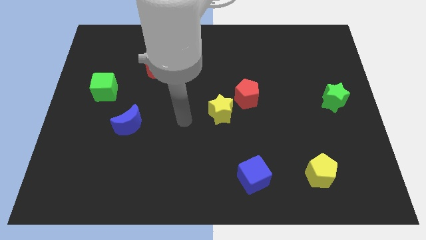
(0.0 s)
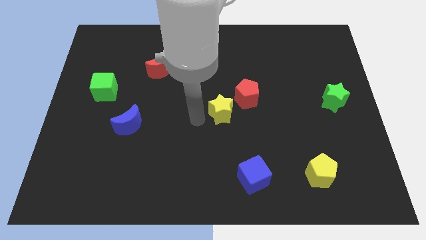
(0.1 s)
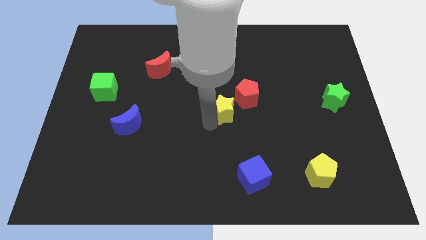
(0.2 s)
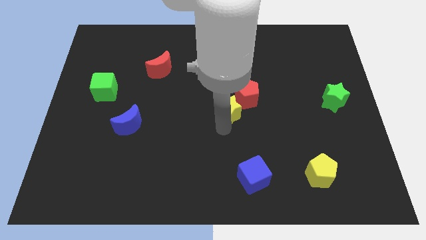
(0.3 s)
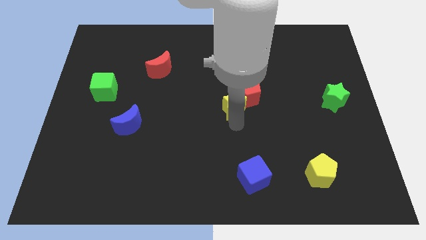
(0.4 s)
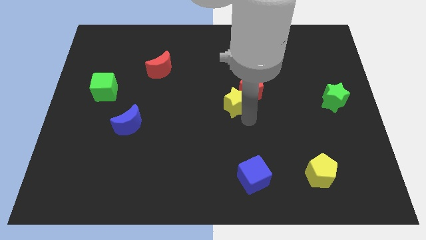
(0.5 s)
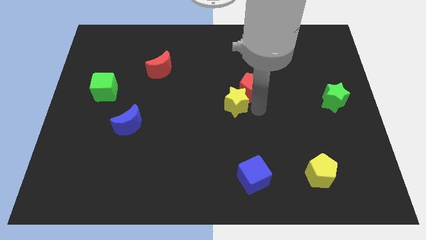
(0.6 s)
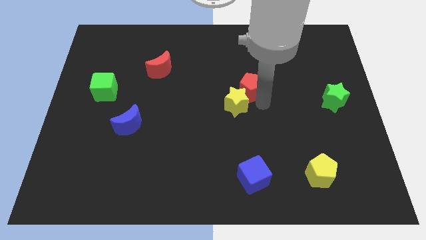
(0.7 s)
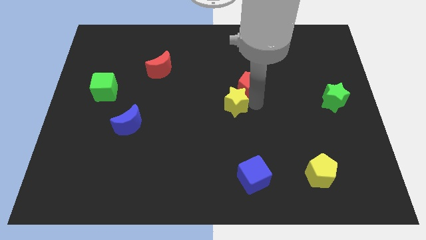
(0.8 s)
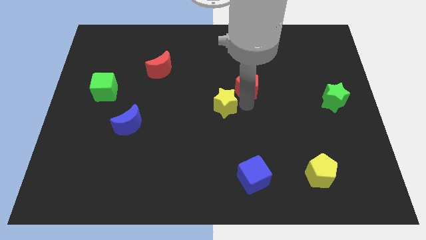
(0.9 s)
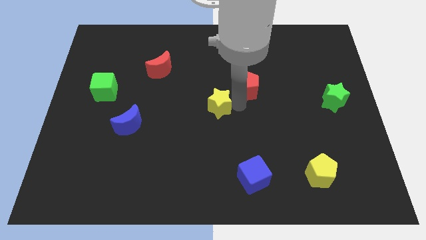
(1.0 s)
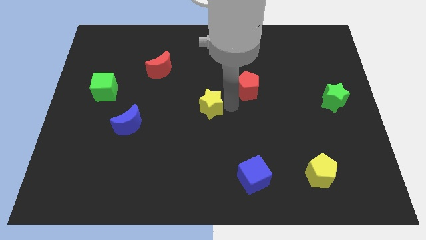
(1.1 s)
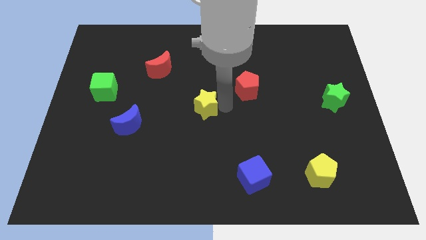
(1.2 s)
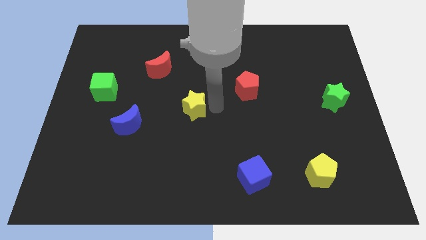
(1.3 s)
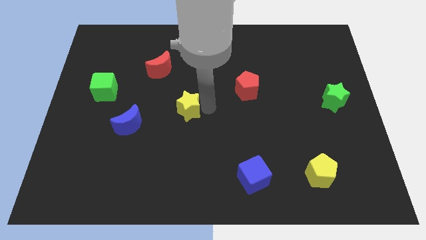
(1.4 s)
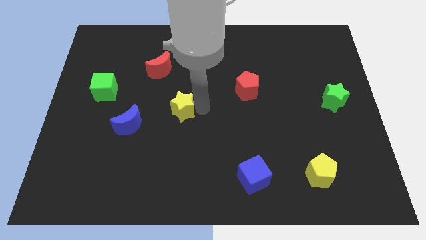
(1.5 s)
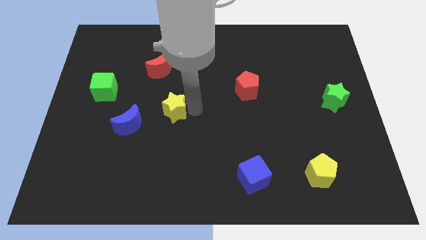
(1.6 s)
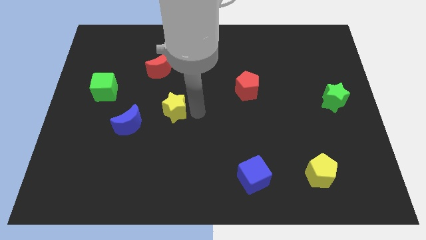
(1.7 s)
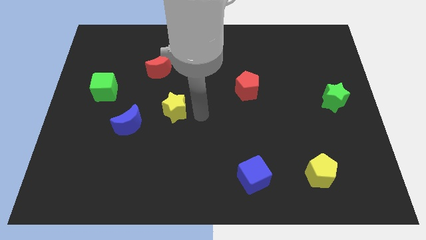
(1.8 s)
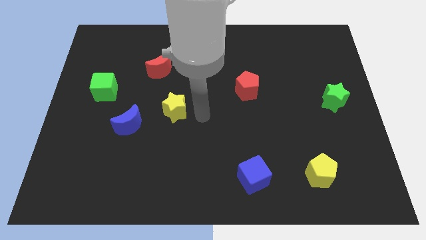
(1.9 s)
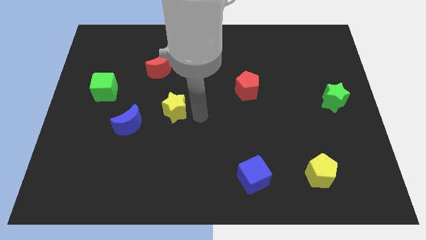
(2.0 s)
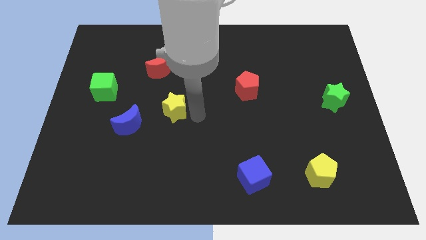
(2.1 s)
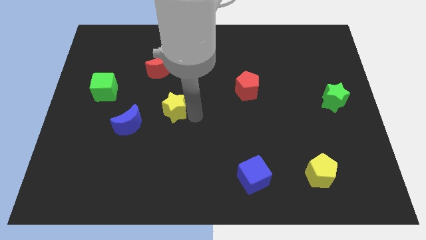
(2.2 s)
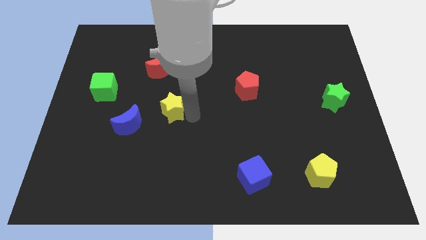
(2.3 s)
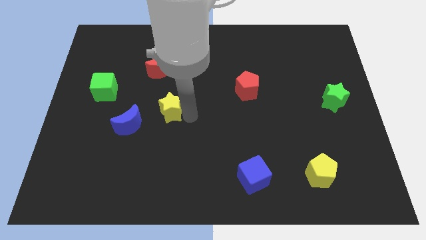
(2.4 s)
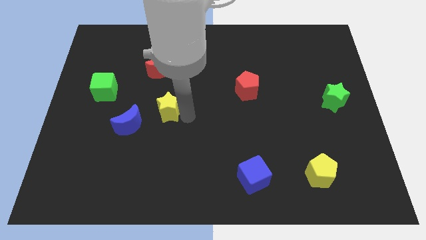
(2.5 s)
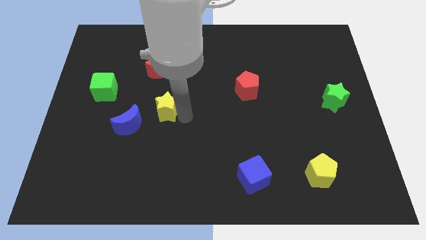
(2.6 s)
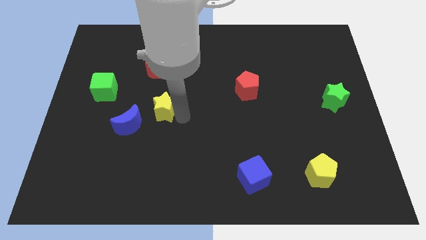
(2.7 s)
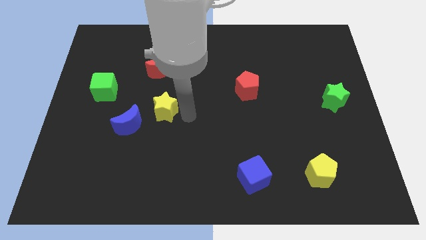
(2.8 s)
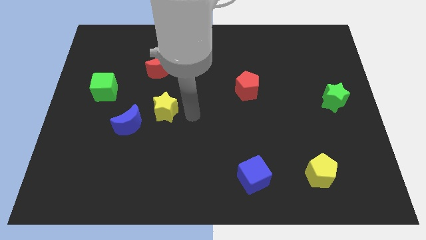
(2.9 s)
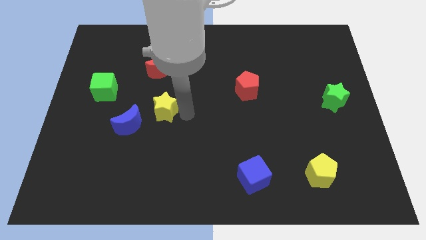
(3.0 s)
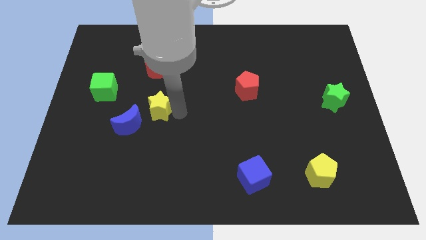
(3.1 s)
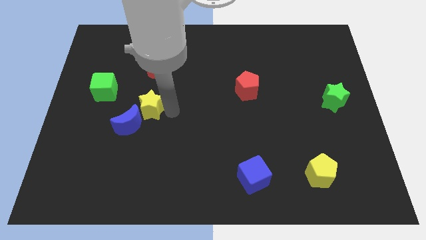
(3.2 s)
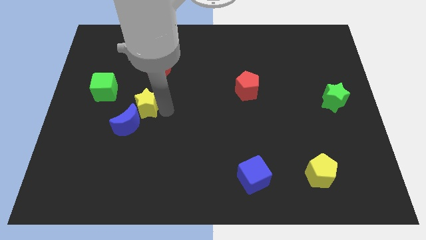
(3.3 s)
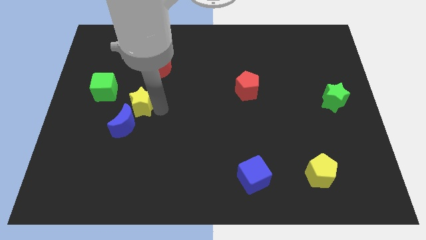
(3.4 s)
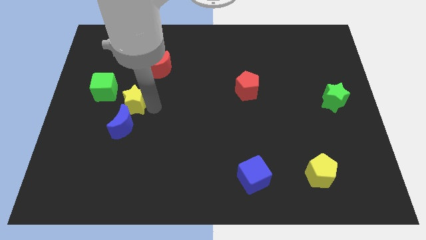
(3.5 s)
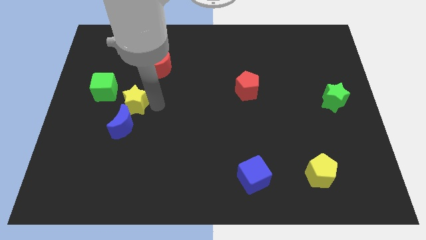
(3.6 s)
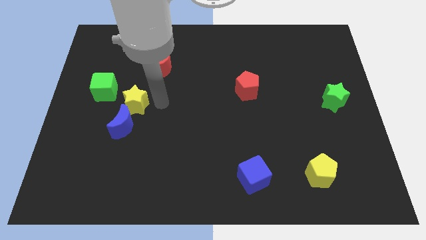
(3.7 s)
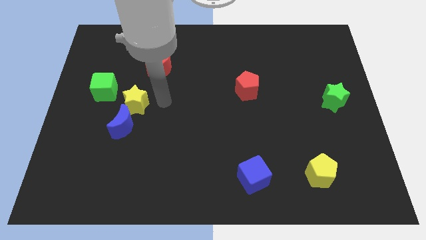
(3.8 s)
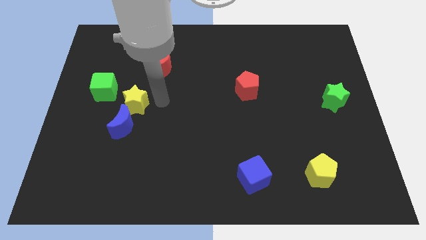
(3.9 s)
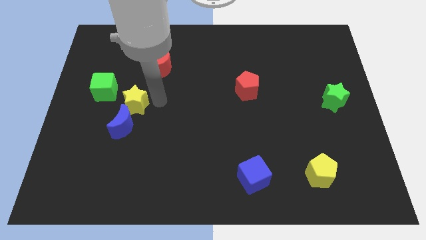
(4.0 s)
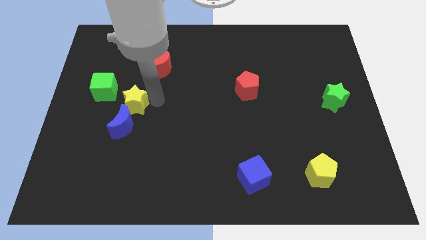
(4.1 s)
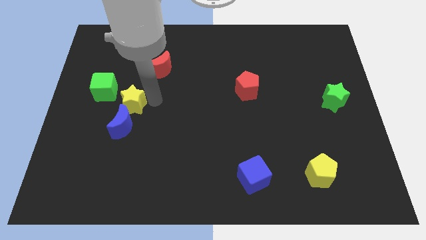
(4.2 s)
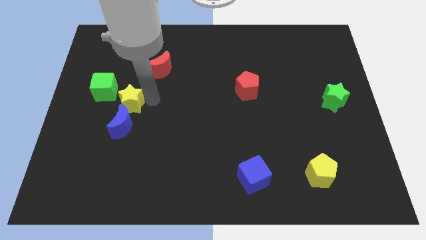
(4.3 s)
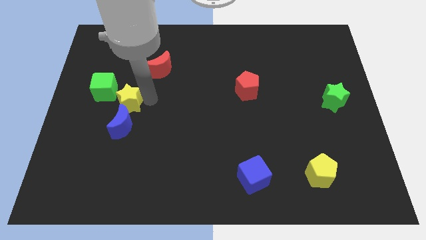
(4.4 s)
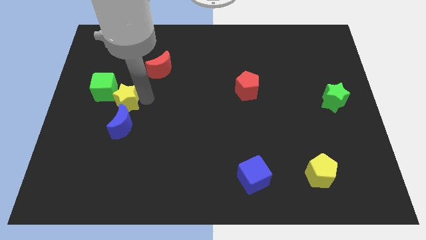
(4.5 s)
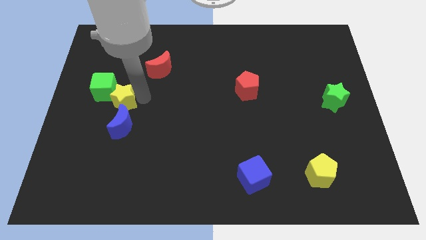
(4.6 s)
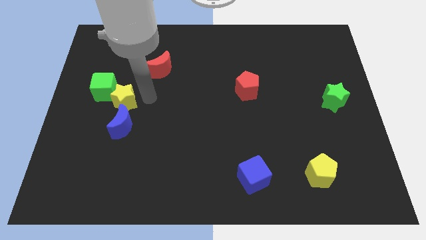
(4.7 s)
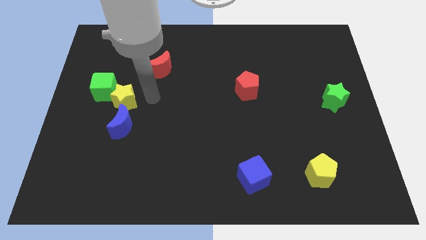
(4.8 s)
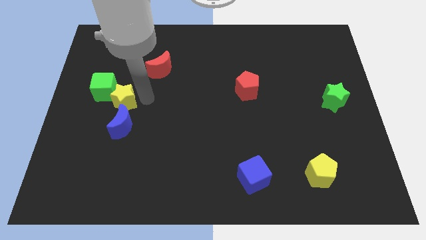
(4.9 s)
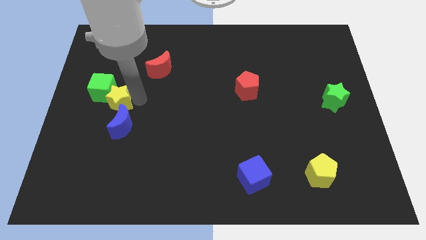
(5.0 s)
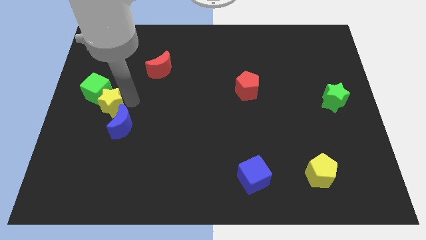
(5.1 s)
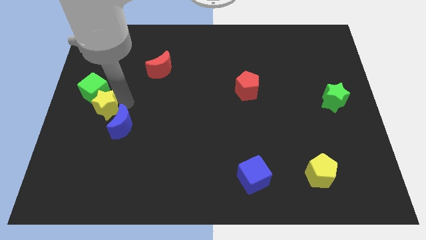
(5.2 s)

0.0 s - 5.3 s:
push the yellow star to the left side

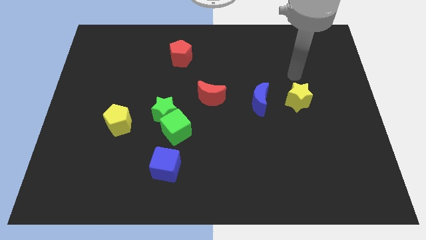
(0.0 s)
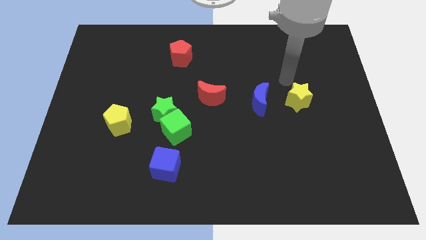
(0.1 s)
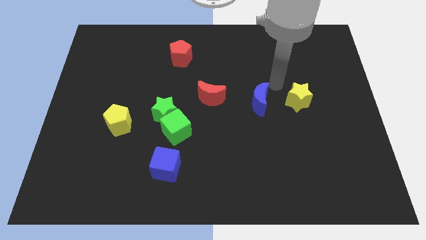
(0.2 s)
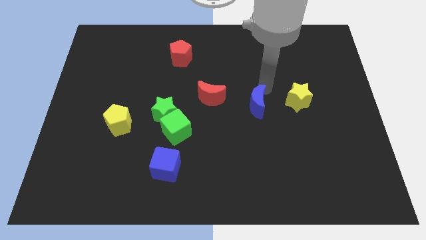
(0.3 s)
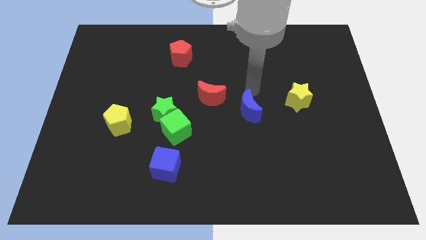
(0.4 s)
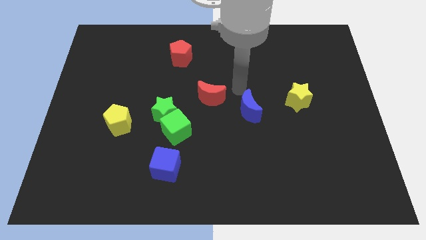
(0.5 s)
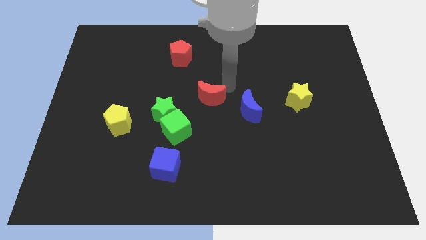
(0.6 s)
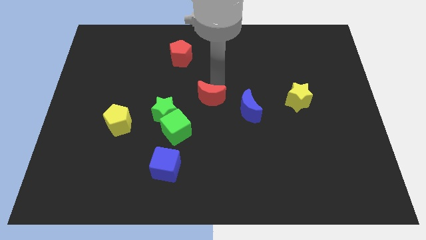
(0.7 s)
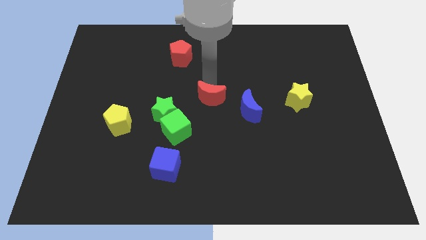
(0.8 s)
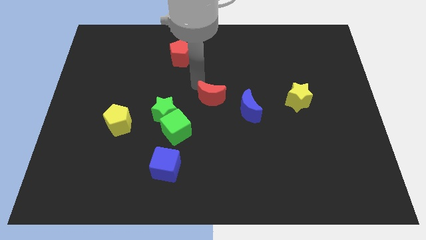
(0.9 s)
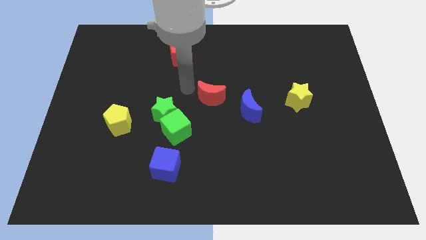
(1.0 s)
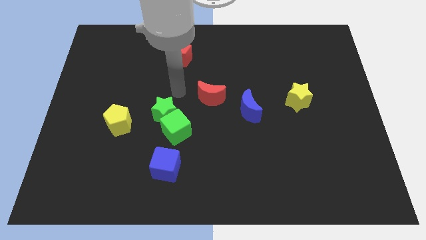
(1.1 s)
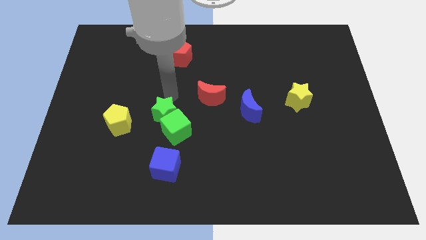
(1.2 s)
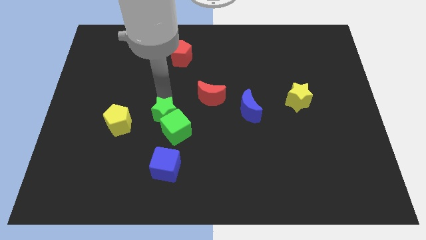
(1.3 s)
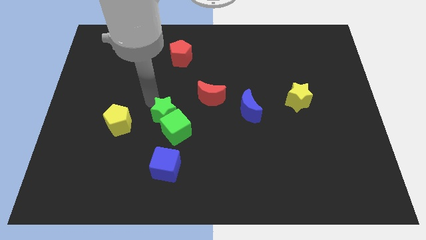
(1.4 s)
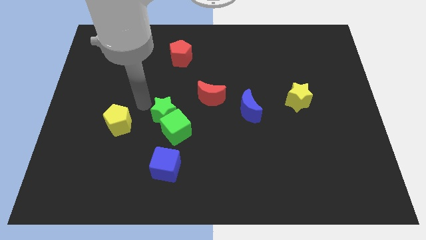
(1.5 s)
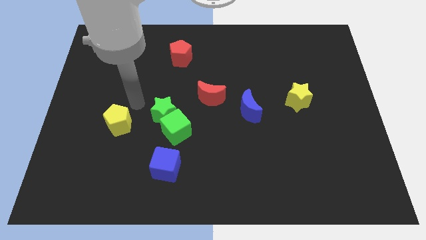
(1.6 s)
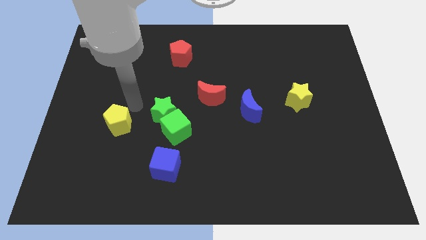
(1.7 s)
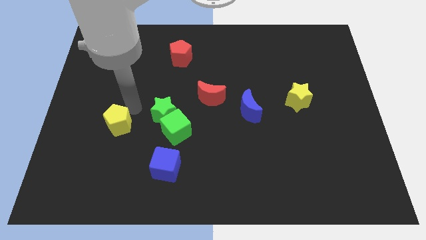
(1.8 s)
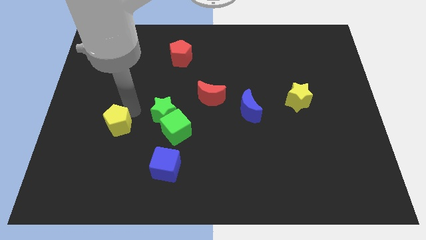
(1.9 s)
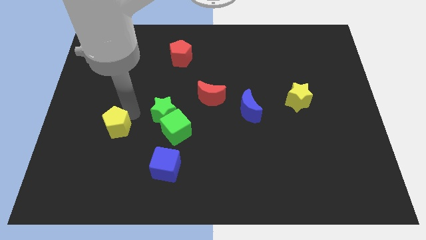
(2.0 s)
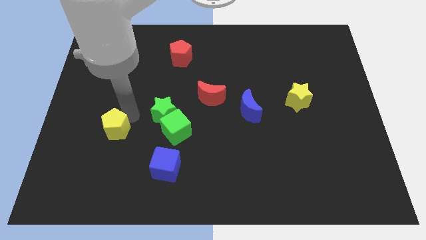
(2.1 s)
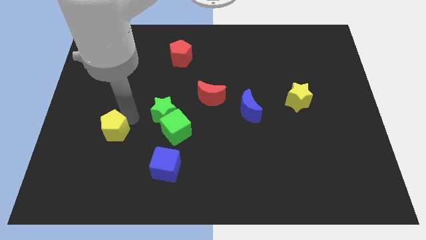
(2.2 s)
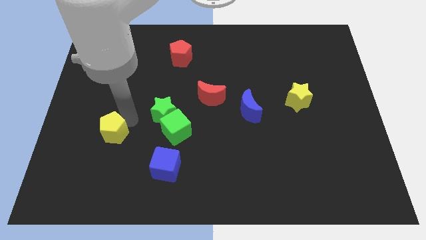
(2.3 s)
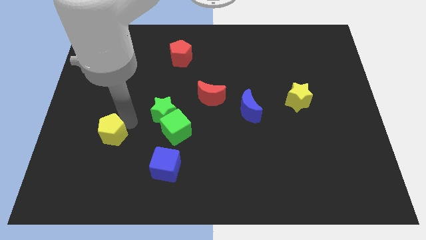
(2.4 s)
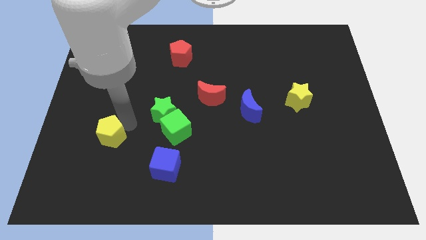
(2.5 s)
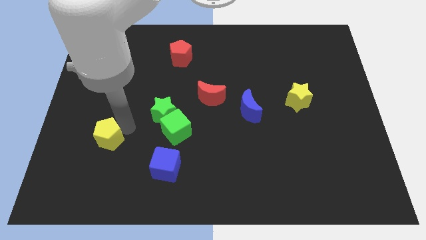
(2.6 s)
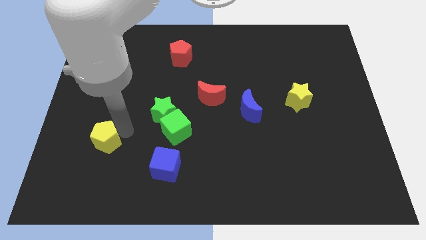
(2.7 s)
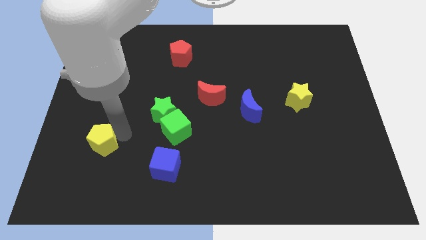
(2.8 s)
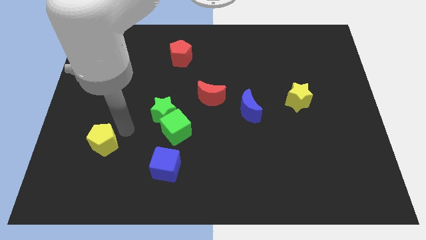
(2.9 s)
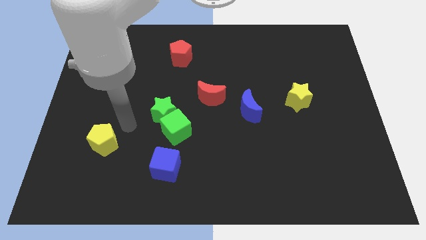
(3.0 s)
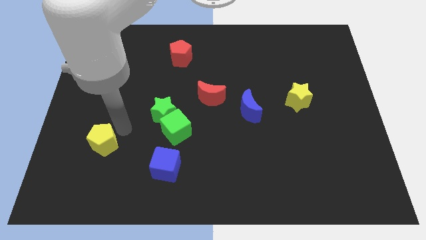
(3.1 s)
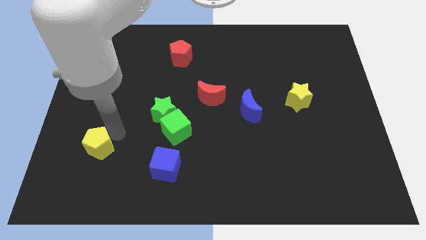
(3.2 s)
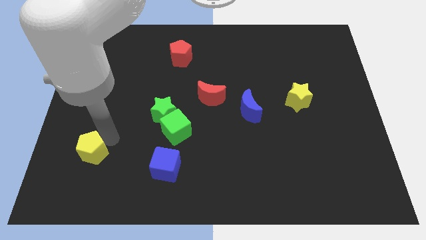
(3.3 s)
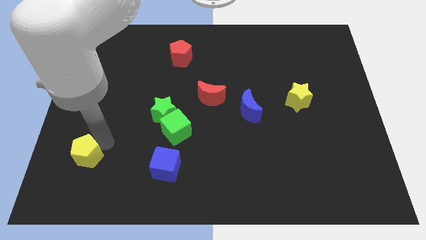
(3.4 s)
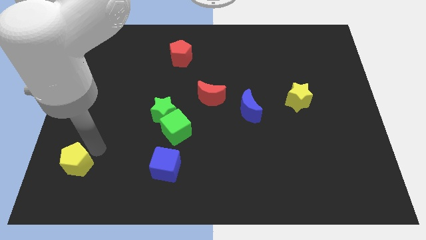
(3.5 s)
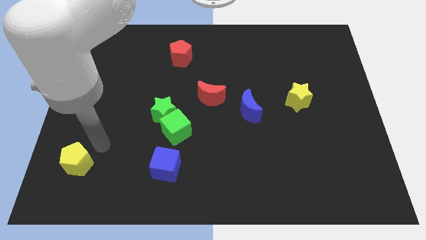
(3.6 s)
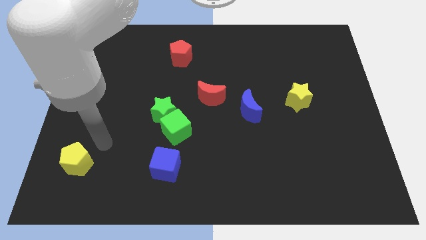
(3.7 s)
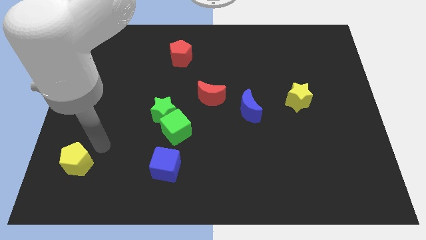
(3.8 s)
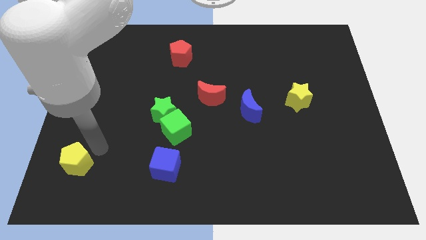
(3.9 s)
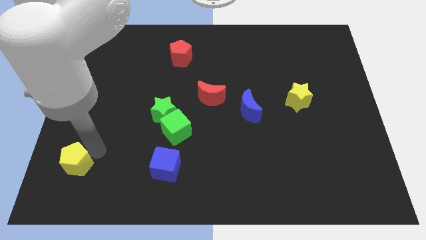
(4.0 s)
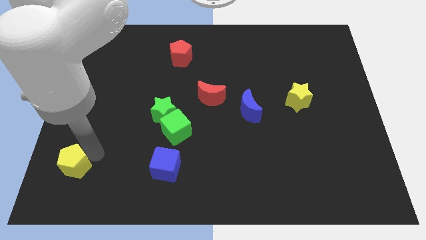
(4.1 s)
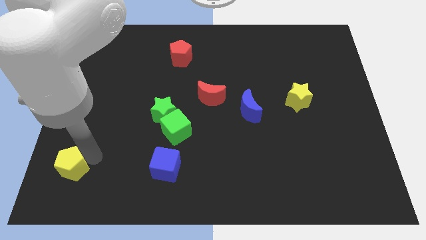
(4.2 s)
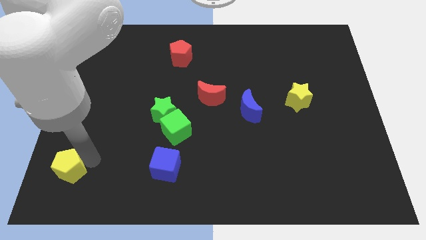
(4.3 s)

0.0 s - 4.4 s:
slide the yellow pentagon to the bottom left of the board
